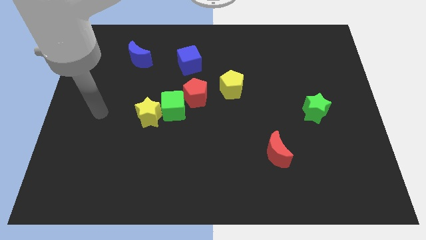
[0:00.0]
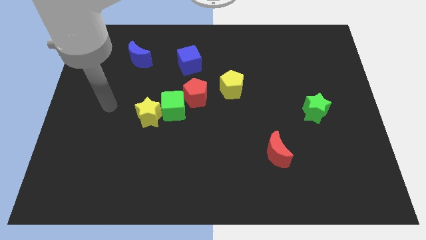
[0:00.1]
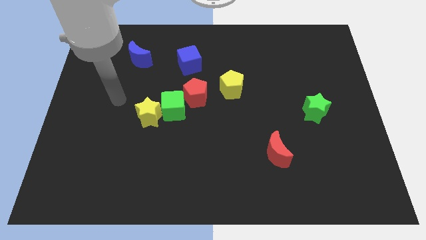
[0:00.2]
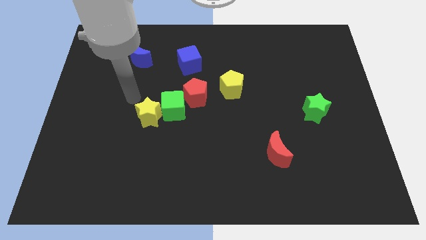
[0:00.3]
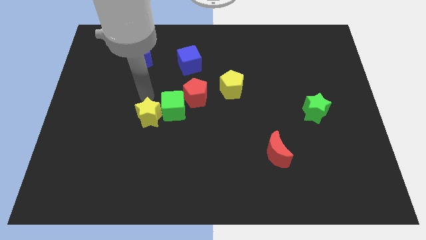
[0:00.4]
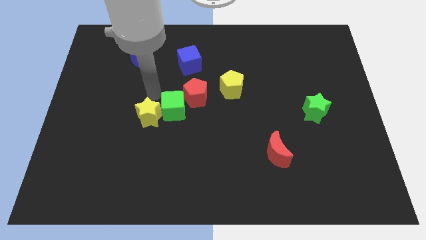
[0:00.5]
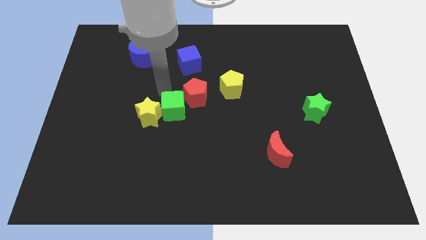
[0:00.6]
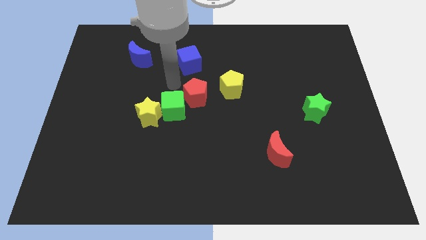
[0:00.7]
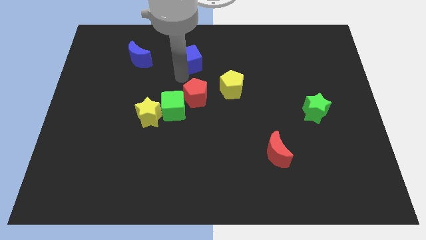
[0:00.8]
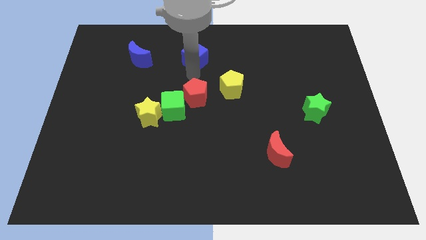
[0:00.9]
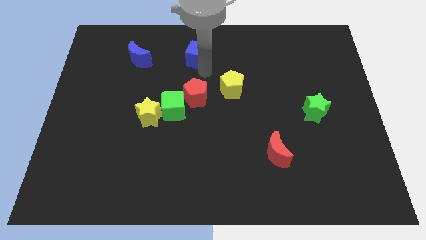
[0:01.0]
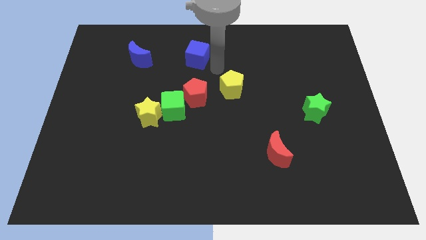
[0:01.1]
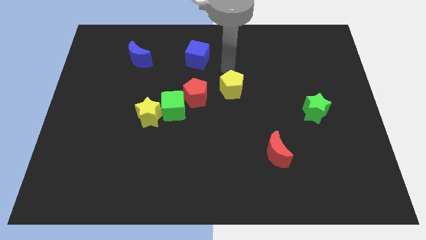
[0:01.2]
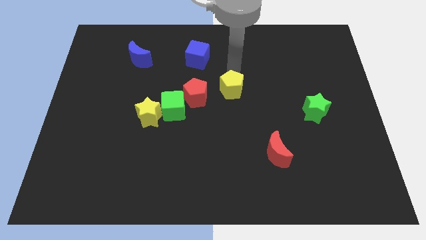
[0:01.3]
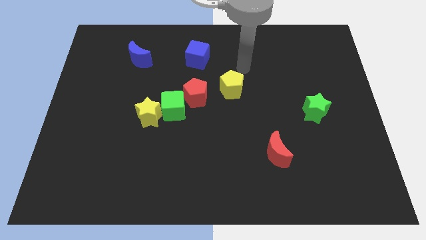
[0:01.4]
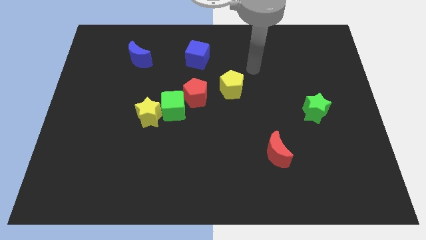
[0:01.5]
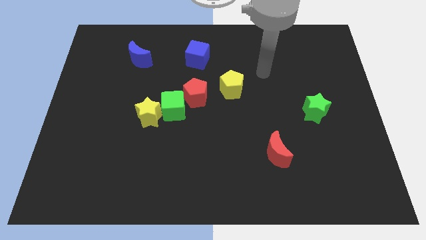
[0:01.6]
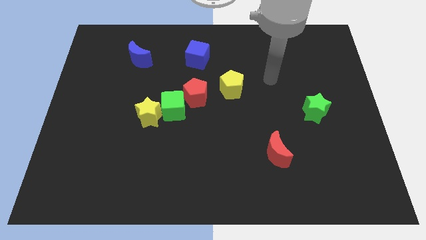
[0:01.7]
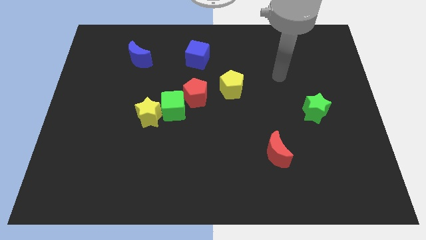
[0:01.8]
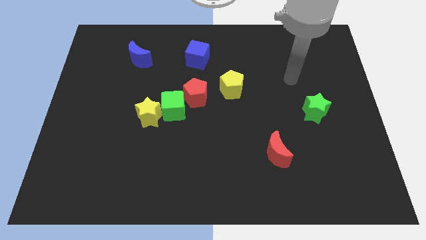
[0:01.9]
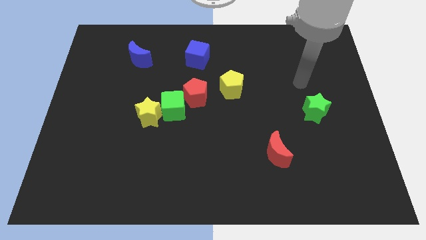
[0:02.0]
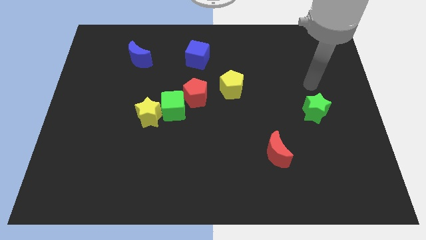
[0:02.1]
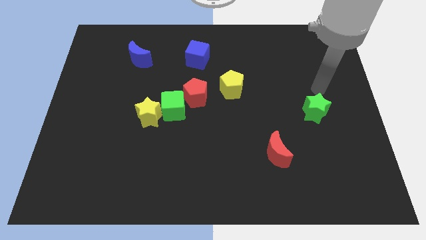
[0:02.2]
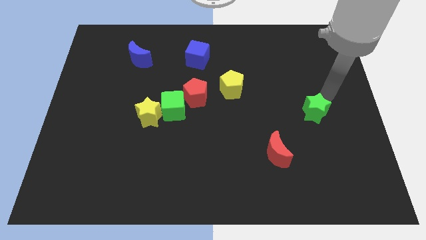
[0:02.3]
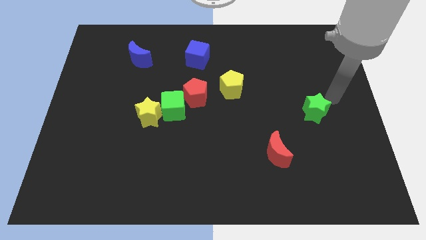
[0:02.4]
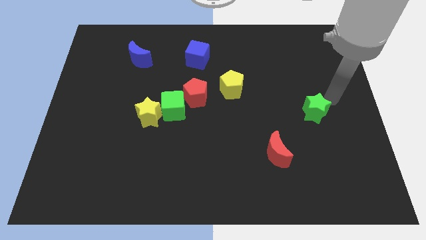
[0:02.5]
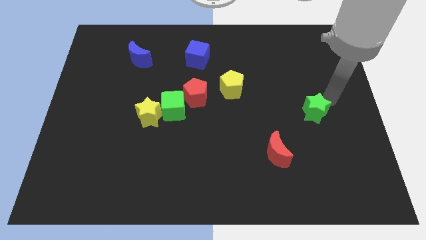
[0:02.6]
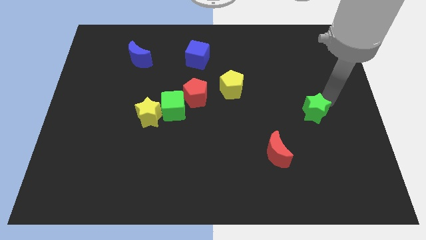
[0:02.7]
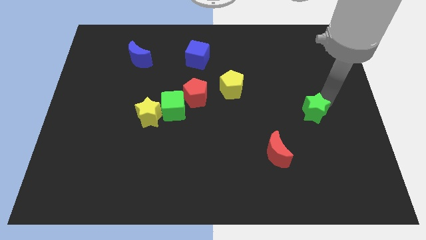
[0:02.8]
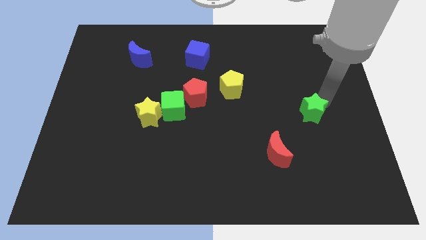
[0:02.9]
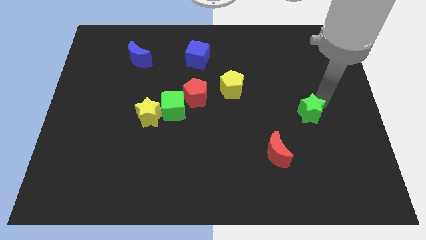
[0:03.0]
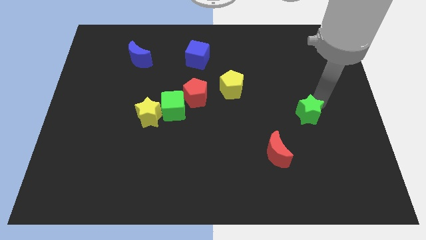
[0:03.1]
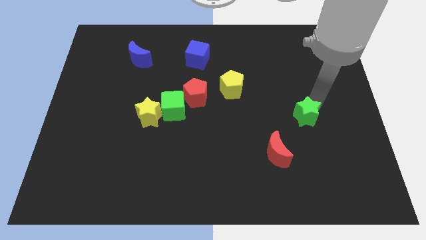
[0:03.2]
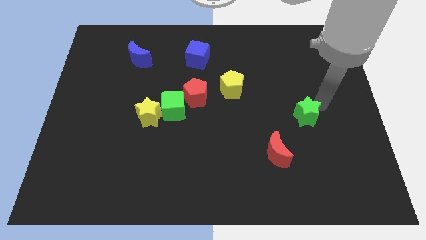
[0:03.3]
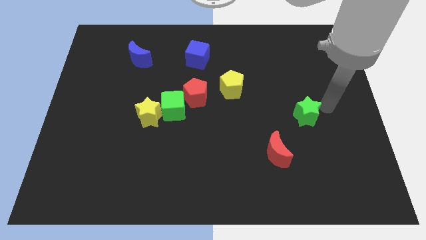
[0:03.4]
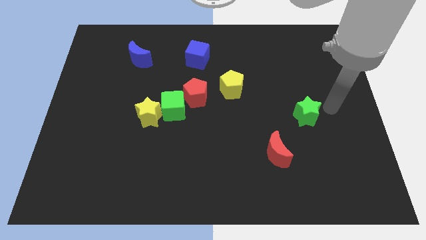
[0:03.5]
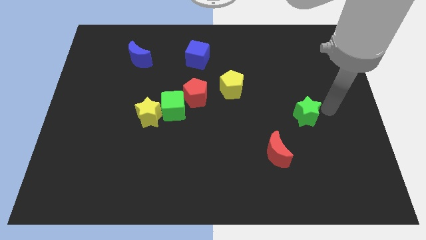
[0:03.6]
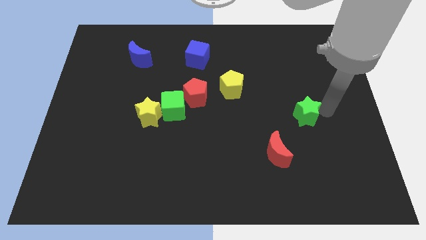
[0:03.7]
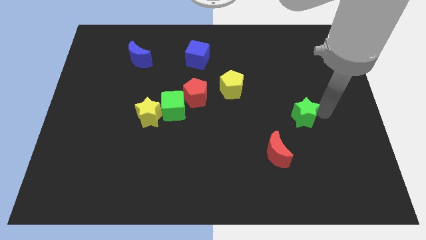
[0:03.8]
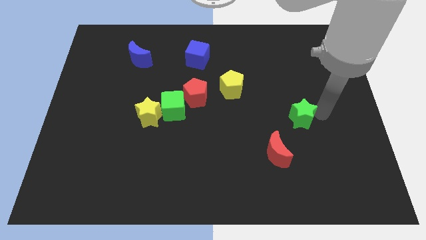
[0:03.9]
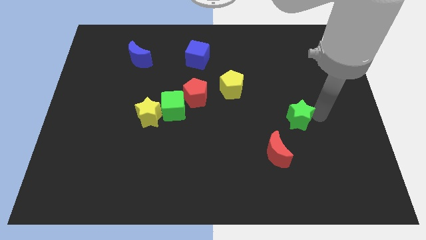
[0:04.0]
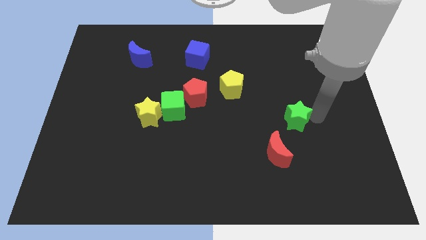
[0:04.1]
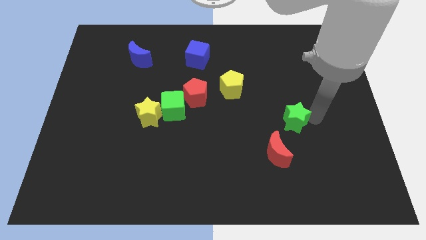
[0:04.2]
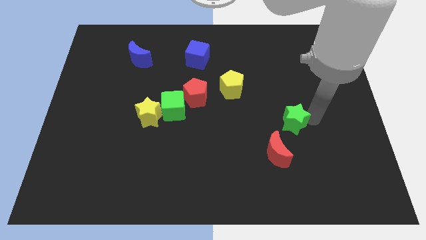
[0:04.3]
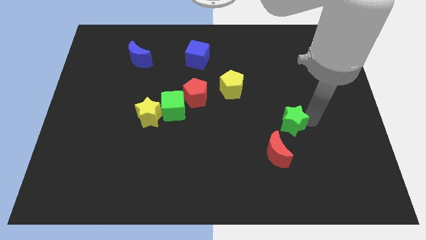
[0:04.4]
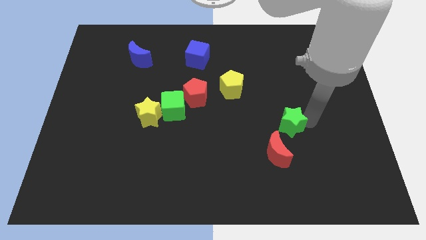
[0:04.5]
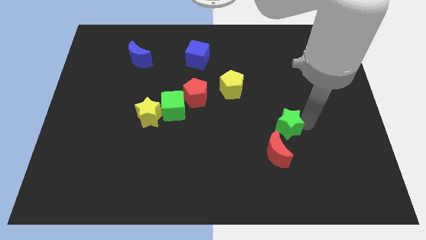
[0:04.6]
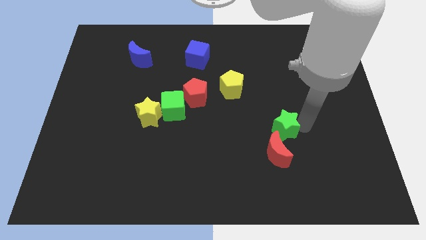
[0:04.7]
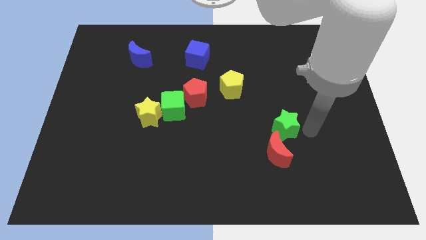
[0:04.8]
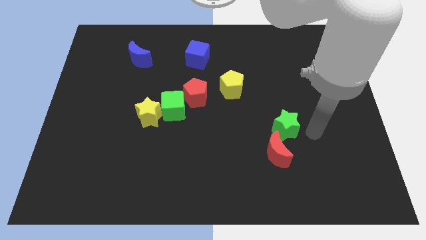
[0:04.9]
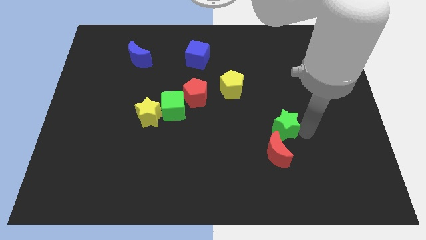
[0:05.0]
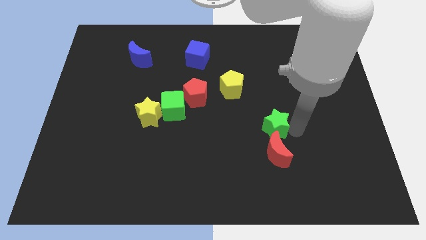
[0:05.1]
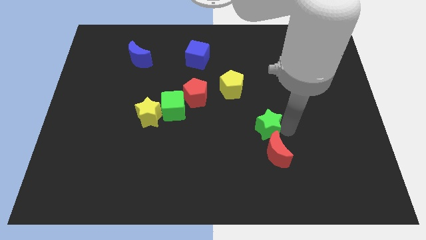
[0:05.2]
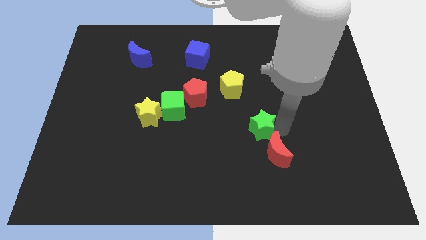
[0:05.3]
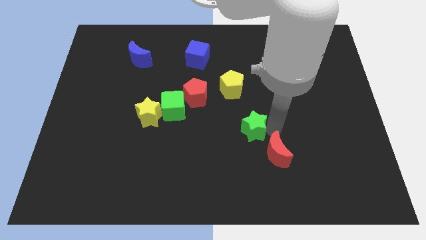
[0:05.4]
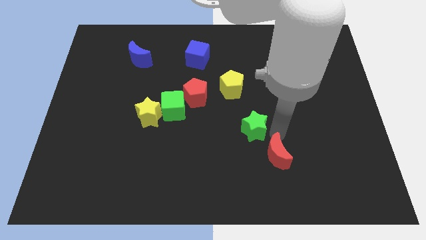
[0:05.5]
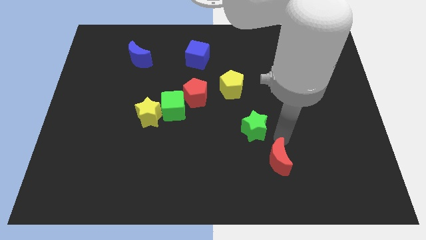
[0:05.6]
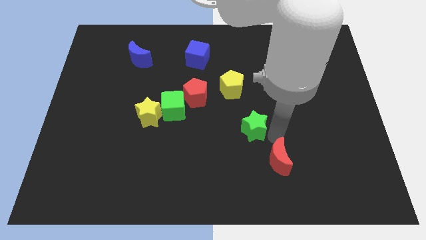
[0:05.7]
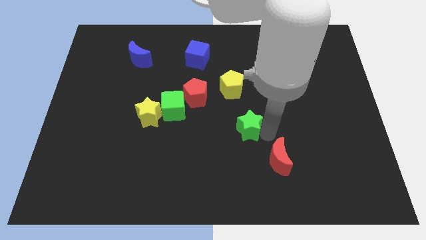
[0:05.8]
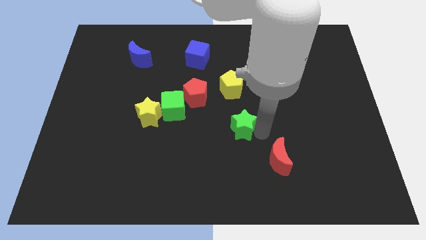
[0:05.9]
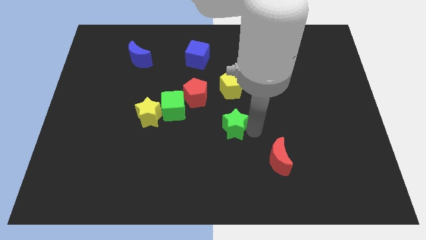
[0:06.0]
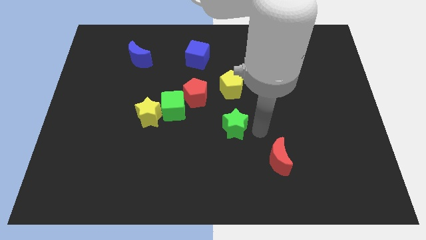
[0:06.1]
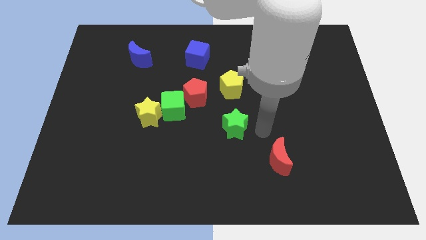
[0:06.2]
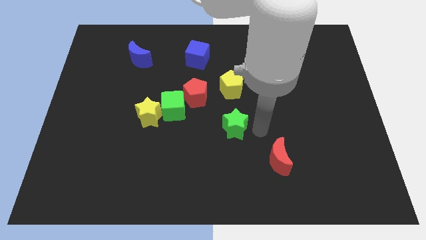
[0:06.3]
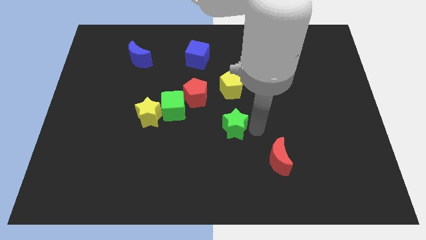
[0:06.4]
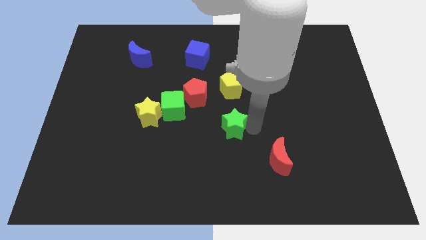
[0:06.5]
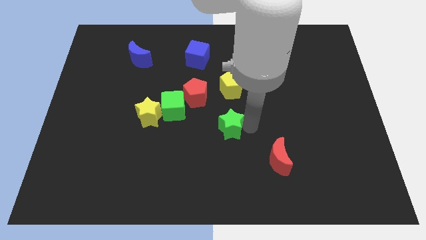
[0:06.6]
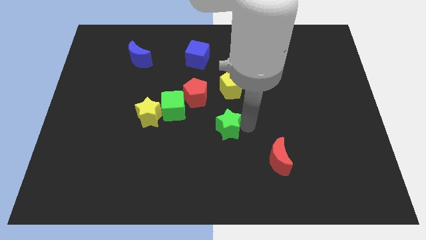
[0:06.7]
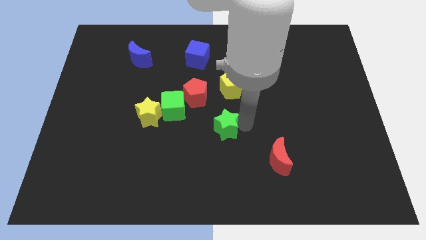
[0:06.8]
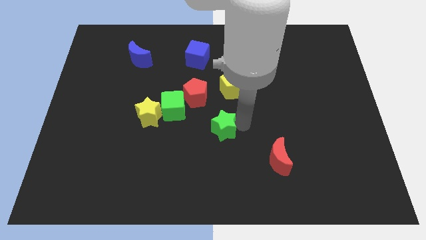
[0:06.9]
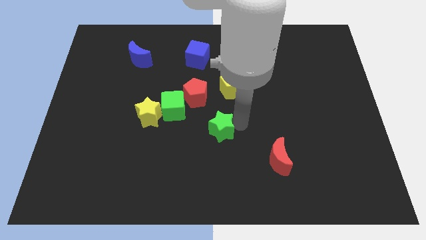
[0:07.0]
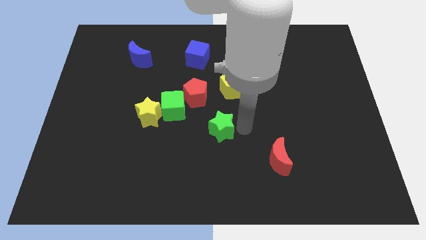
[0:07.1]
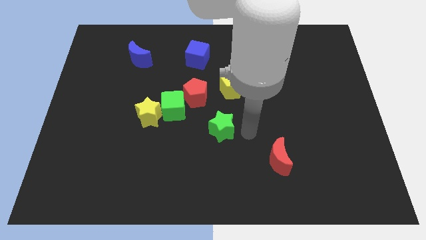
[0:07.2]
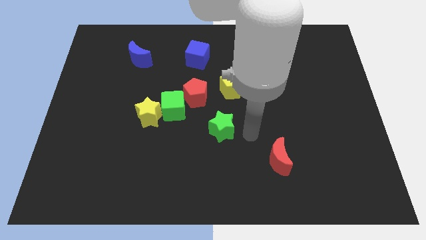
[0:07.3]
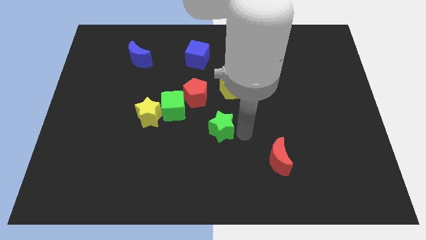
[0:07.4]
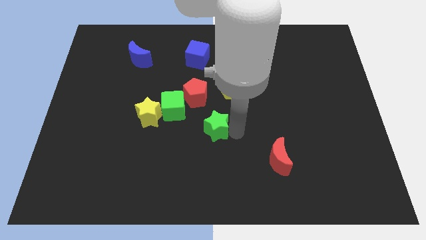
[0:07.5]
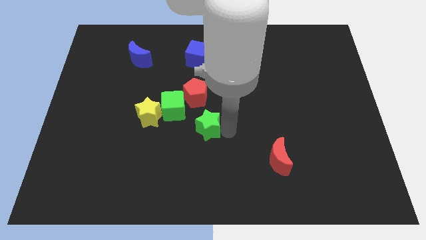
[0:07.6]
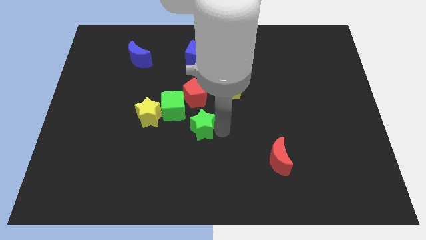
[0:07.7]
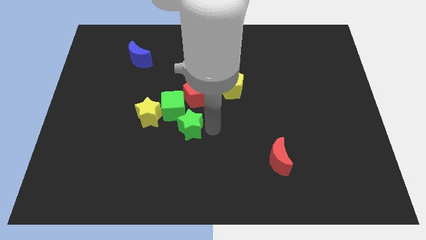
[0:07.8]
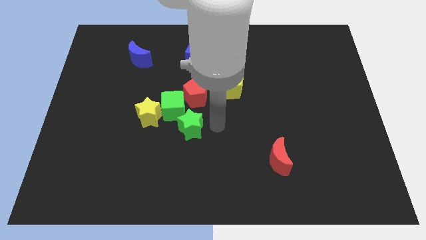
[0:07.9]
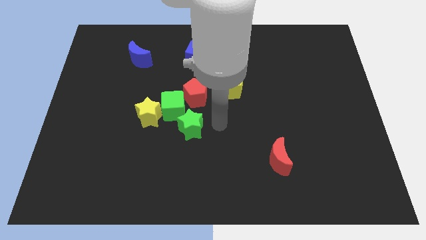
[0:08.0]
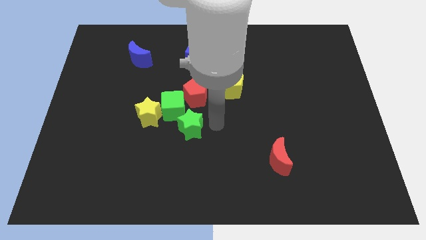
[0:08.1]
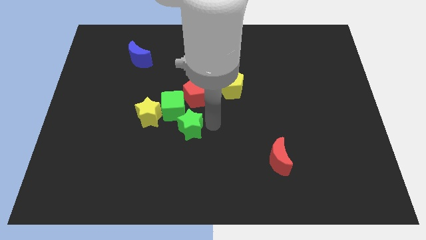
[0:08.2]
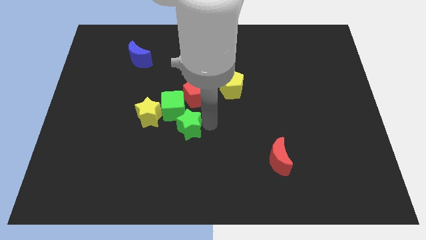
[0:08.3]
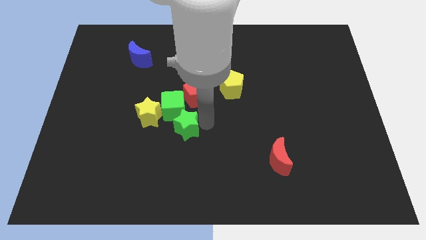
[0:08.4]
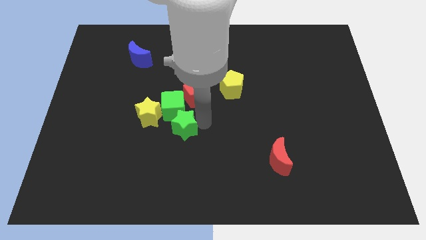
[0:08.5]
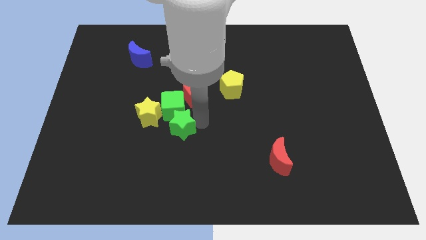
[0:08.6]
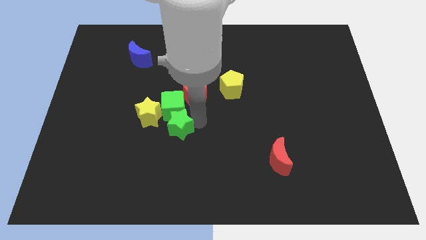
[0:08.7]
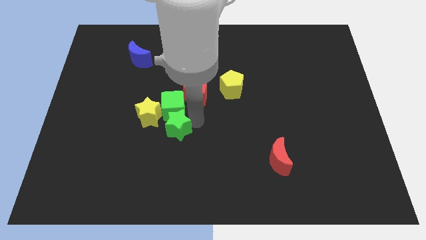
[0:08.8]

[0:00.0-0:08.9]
put the green star to the bottom left of the green cube
